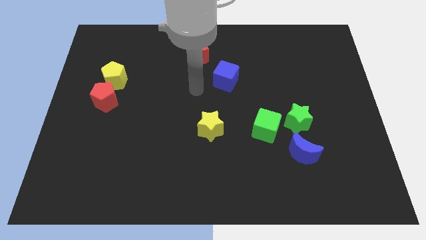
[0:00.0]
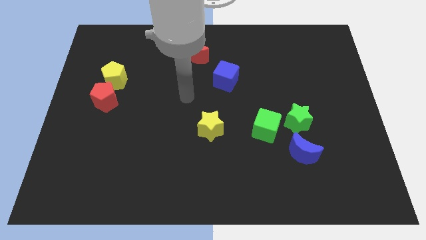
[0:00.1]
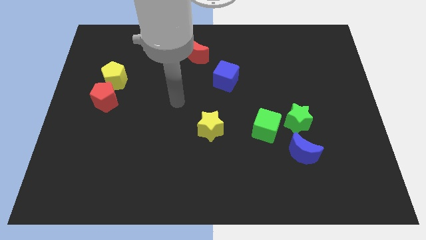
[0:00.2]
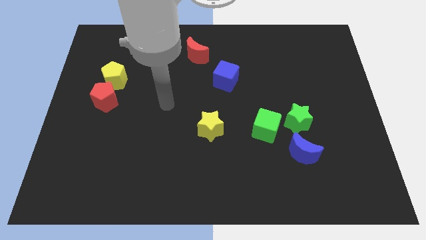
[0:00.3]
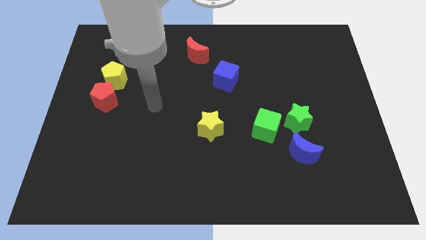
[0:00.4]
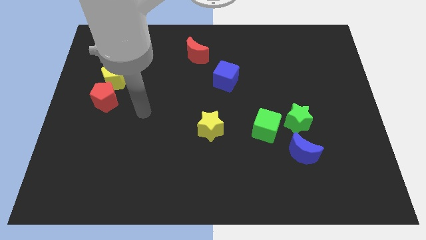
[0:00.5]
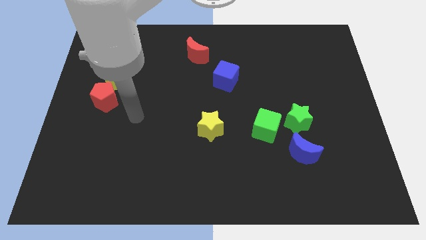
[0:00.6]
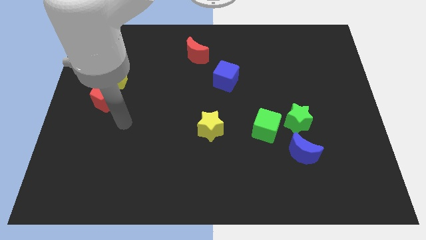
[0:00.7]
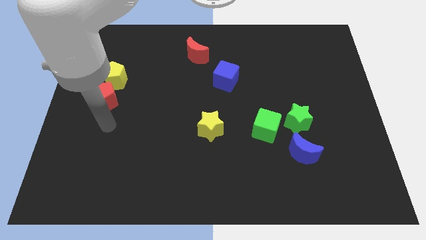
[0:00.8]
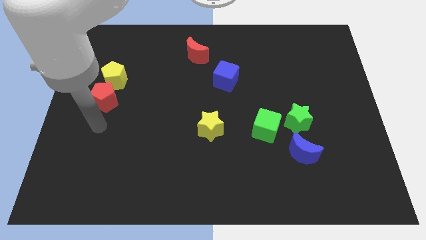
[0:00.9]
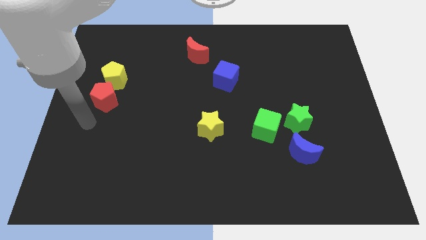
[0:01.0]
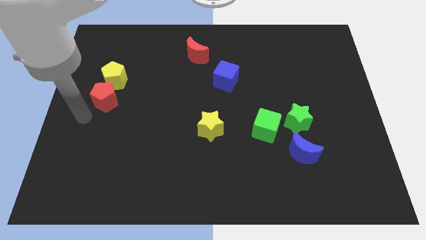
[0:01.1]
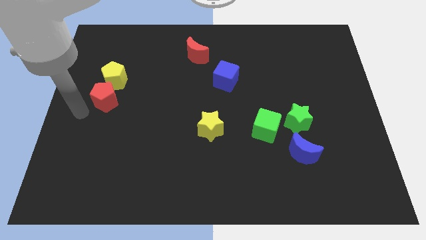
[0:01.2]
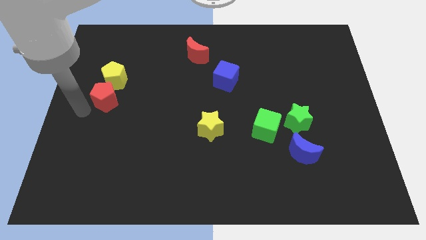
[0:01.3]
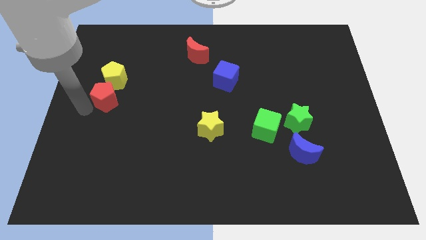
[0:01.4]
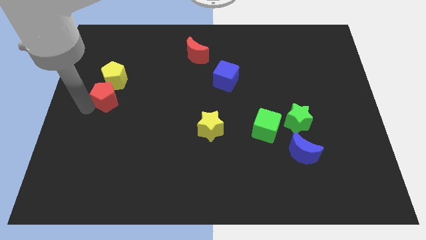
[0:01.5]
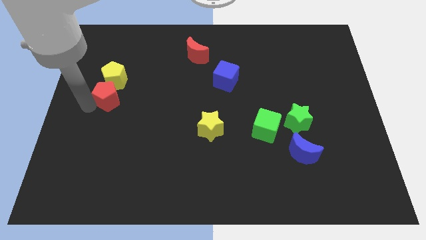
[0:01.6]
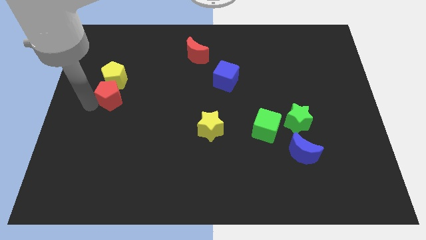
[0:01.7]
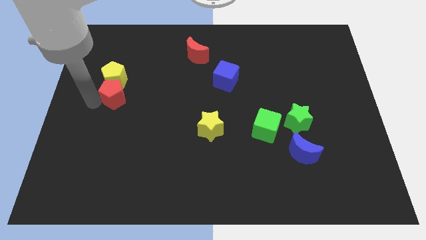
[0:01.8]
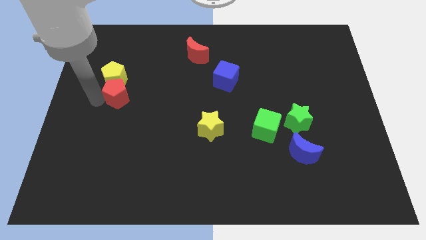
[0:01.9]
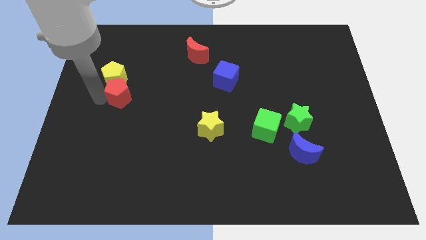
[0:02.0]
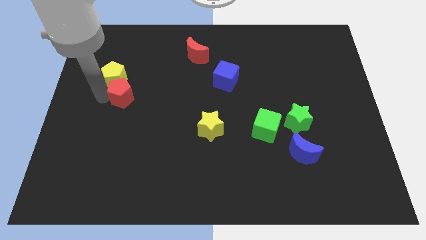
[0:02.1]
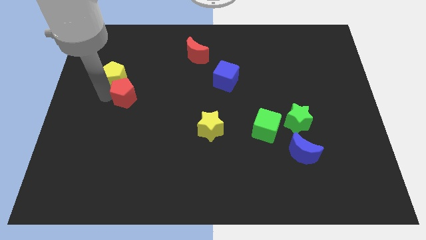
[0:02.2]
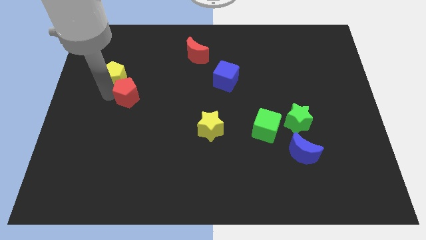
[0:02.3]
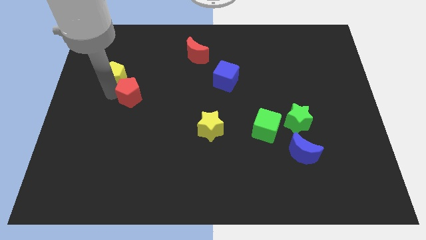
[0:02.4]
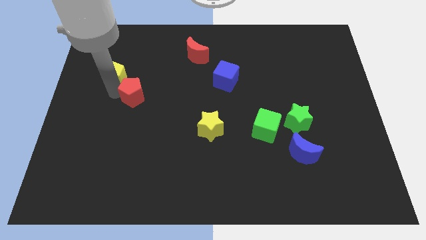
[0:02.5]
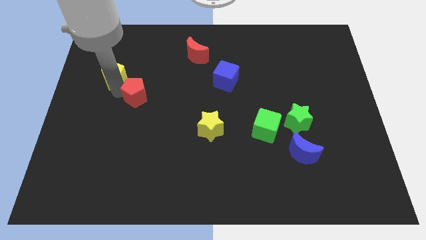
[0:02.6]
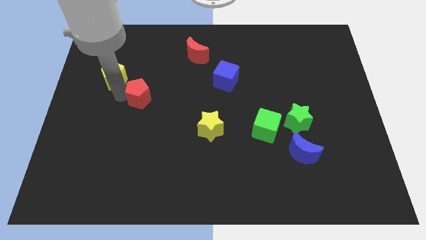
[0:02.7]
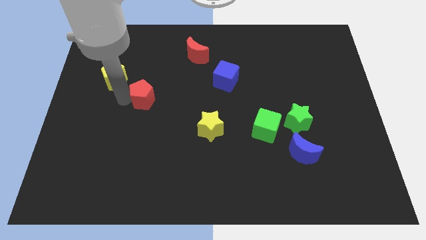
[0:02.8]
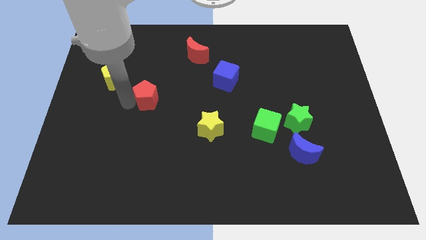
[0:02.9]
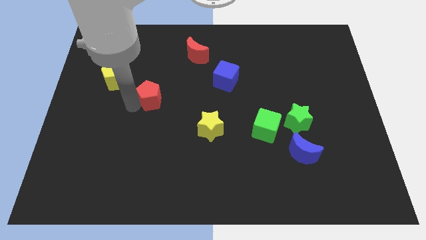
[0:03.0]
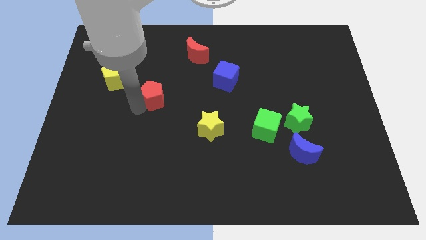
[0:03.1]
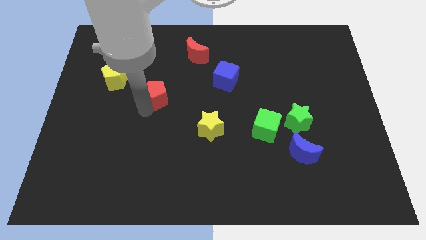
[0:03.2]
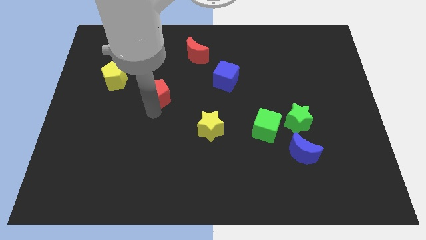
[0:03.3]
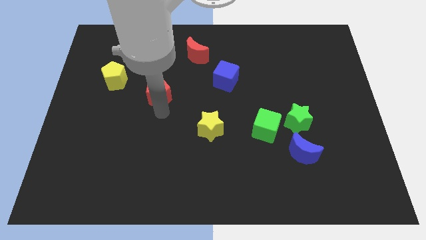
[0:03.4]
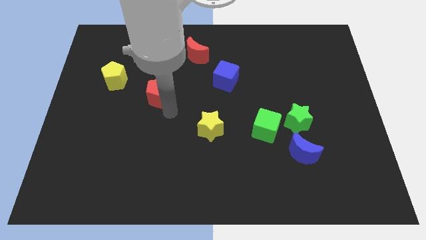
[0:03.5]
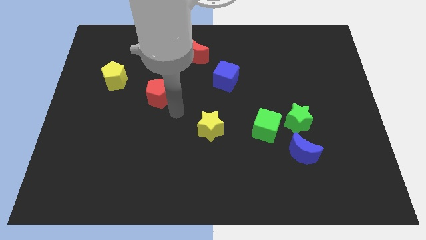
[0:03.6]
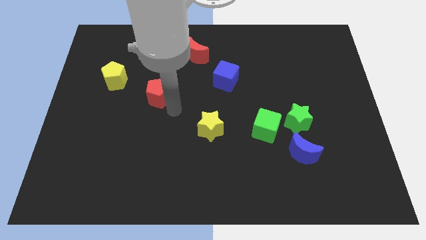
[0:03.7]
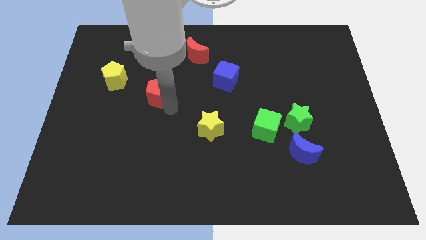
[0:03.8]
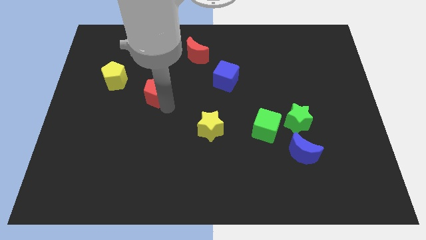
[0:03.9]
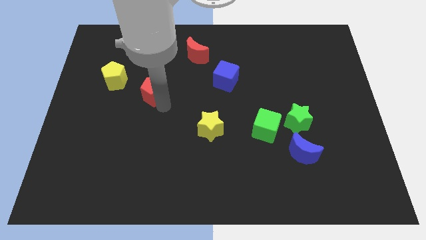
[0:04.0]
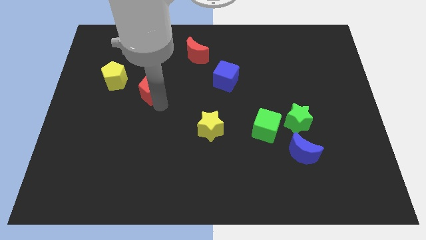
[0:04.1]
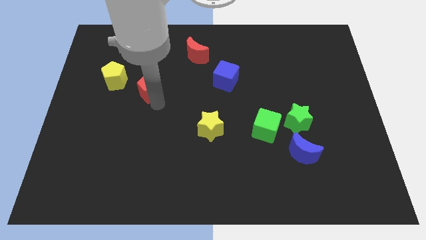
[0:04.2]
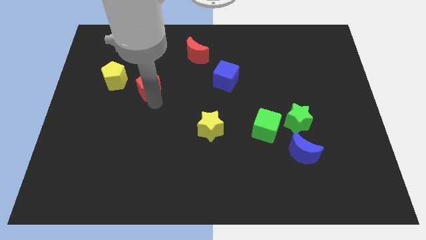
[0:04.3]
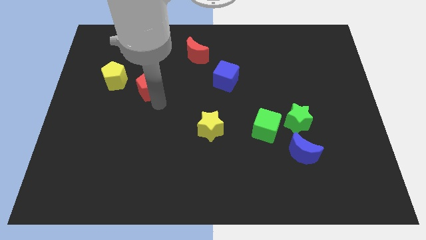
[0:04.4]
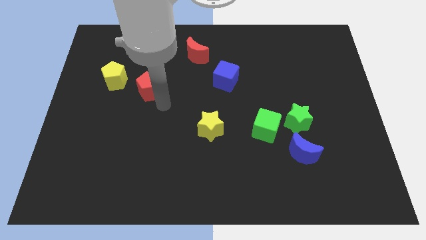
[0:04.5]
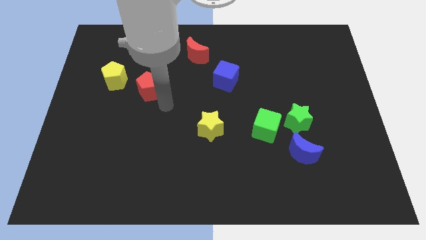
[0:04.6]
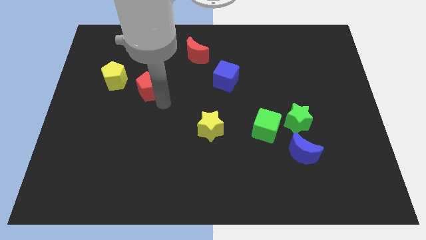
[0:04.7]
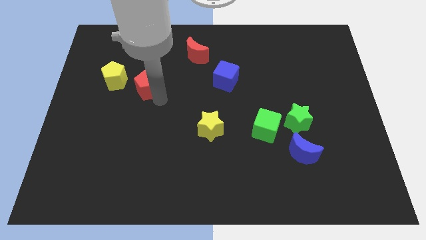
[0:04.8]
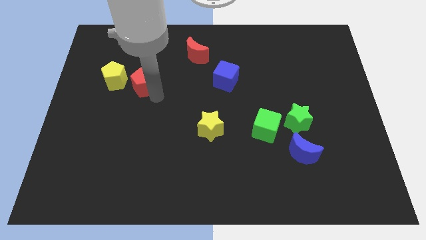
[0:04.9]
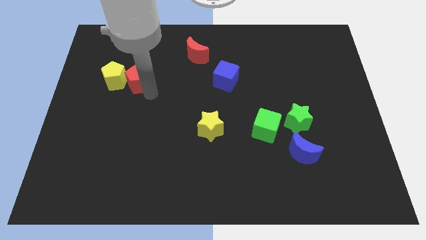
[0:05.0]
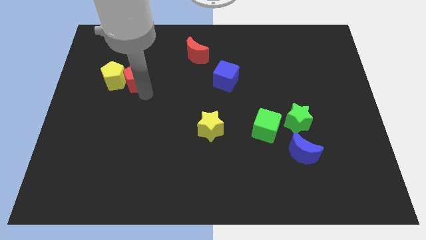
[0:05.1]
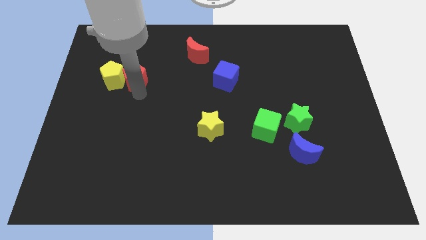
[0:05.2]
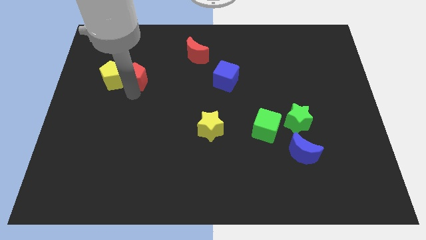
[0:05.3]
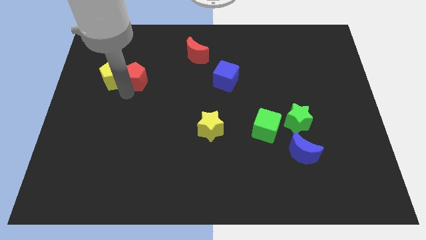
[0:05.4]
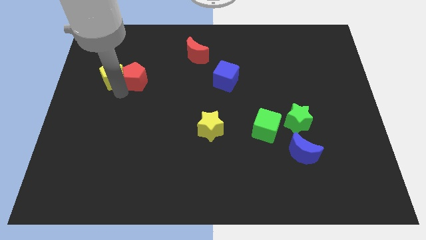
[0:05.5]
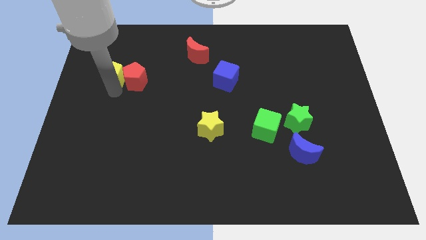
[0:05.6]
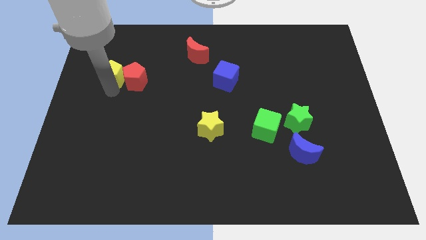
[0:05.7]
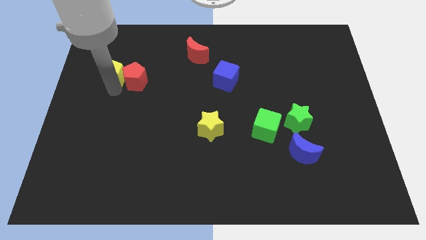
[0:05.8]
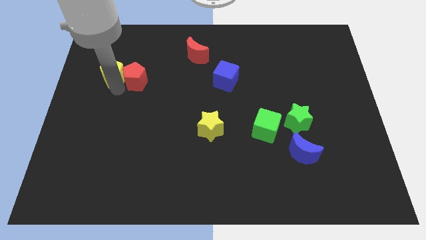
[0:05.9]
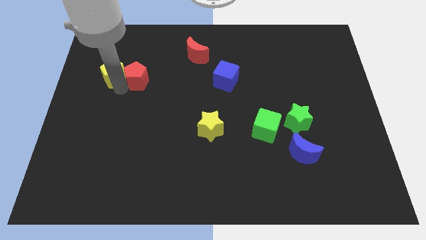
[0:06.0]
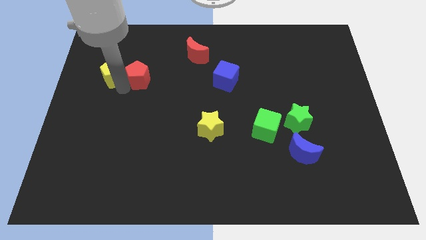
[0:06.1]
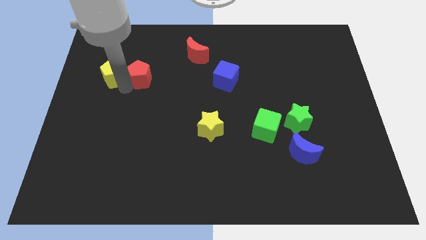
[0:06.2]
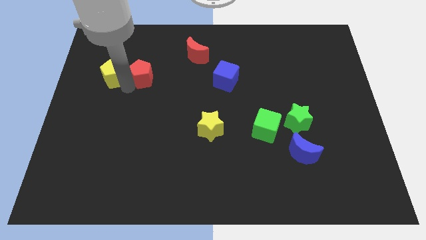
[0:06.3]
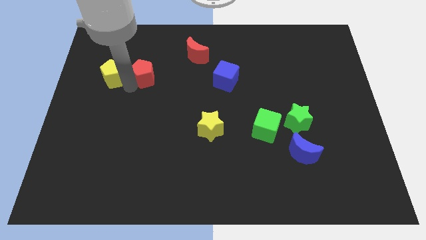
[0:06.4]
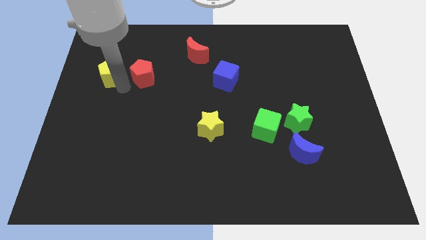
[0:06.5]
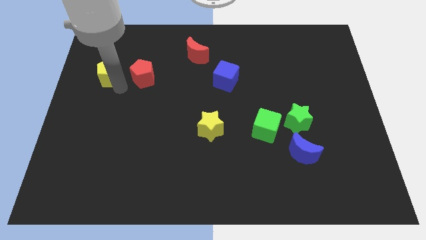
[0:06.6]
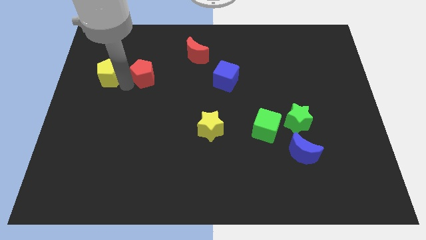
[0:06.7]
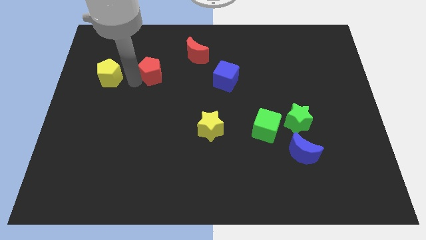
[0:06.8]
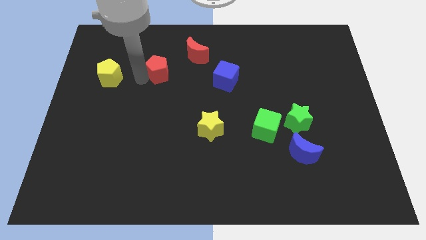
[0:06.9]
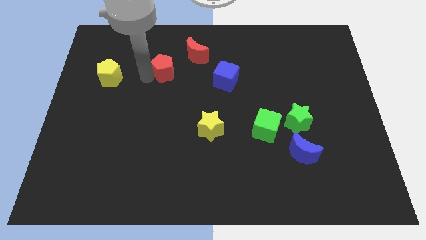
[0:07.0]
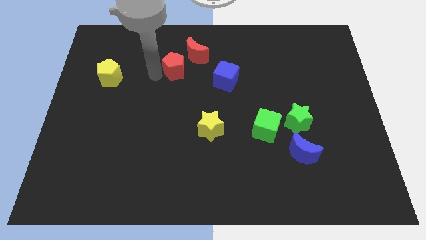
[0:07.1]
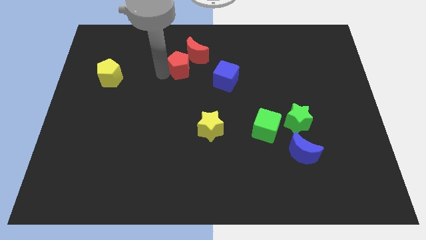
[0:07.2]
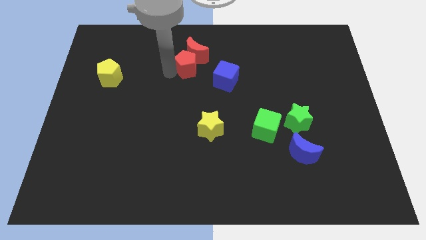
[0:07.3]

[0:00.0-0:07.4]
push the red pentagon to the red moon
